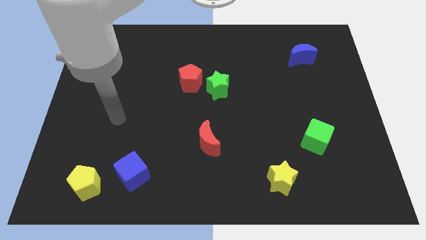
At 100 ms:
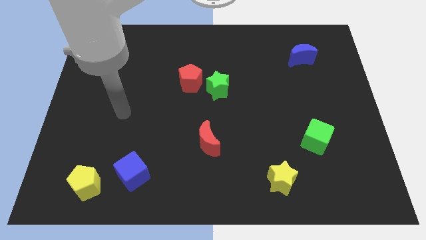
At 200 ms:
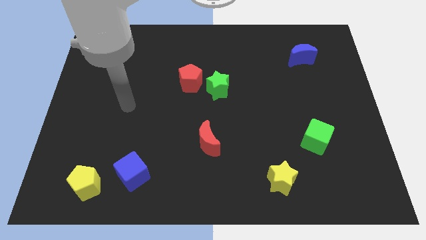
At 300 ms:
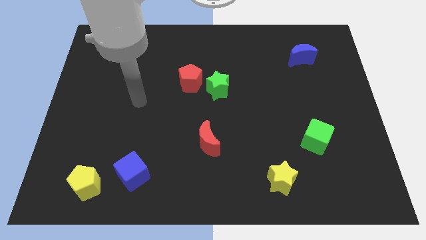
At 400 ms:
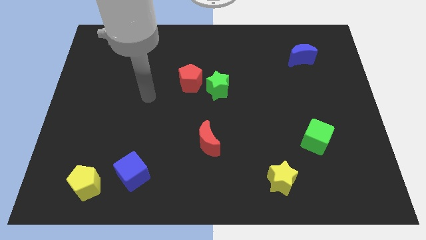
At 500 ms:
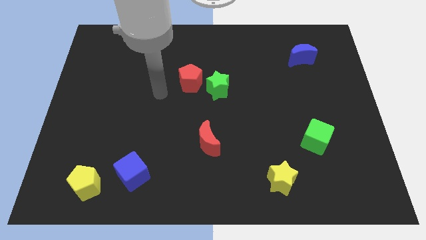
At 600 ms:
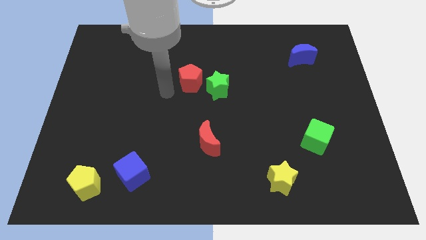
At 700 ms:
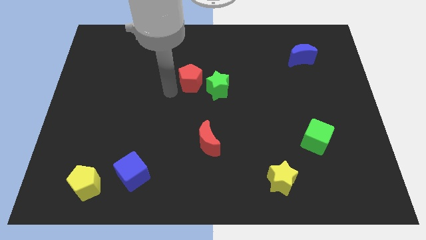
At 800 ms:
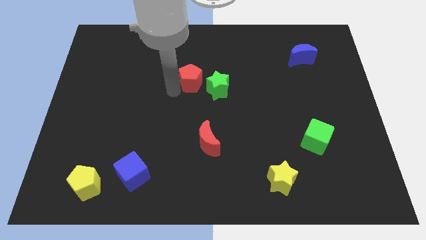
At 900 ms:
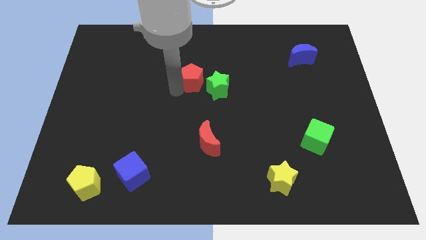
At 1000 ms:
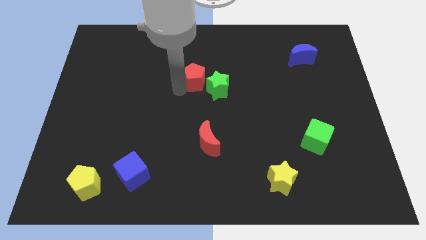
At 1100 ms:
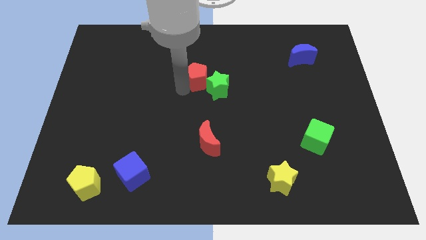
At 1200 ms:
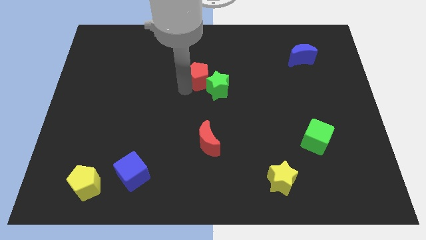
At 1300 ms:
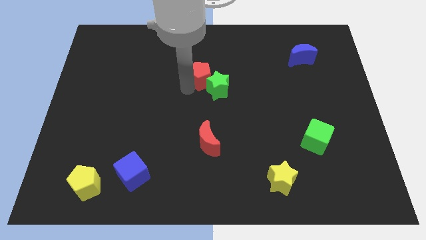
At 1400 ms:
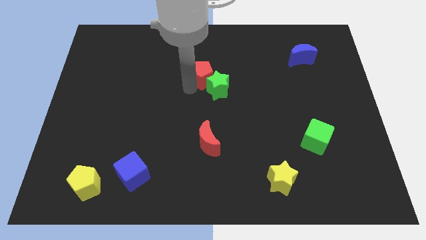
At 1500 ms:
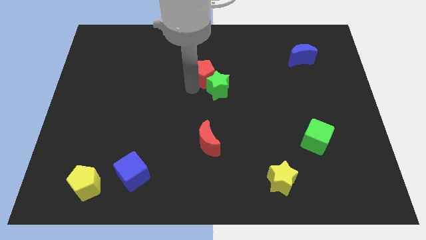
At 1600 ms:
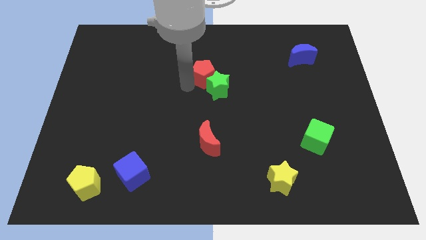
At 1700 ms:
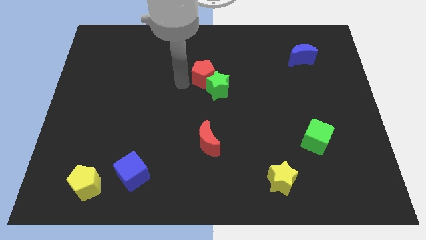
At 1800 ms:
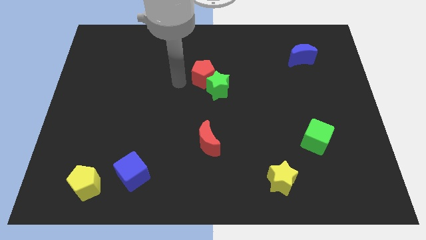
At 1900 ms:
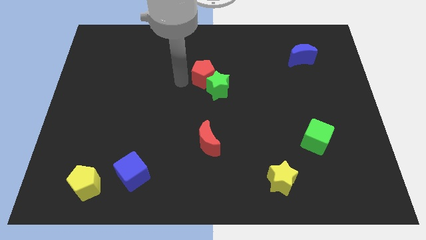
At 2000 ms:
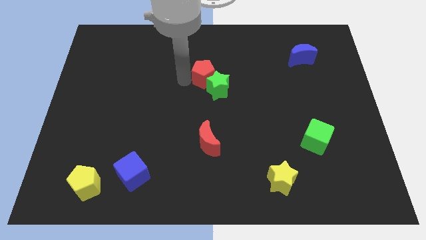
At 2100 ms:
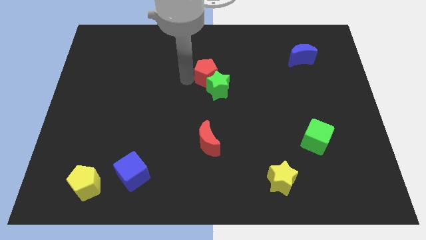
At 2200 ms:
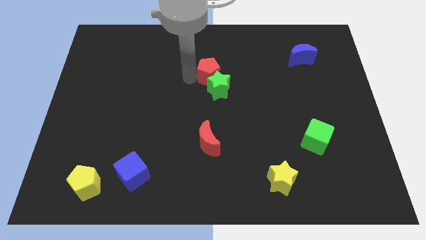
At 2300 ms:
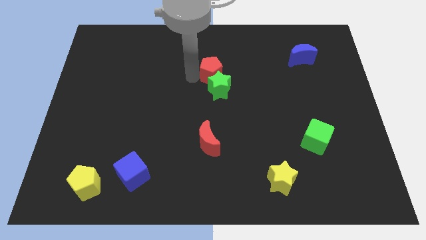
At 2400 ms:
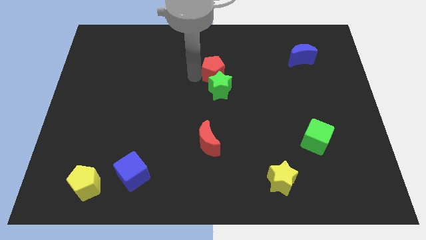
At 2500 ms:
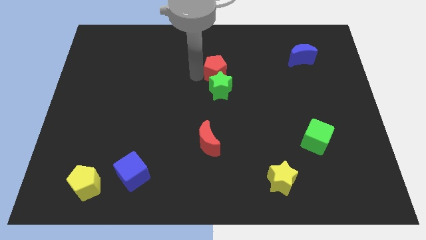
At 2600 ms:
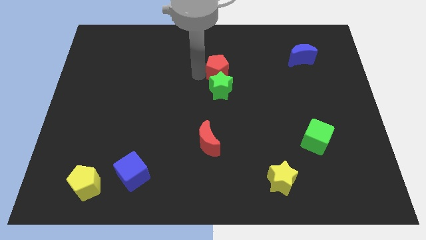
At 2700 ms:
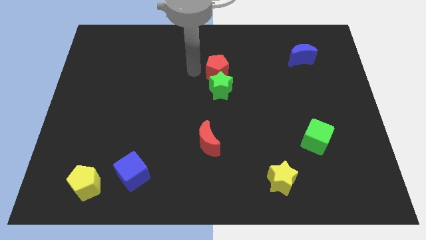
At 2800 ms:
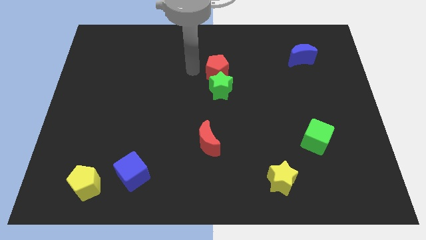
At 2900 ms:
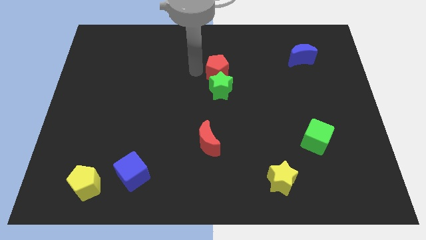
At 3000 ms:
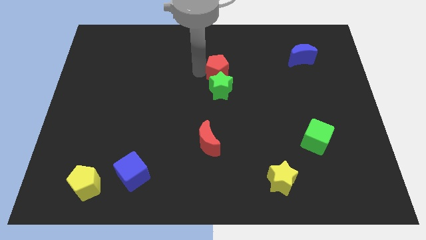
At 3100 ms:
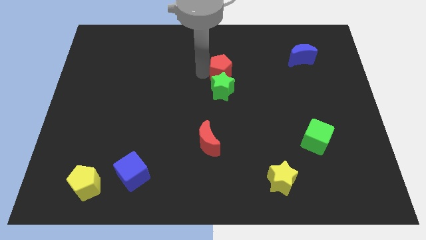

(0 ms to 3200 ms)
slightly push the red pentagon to the right

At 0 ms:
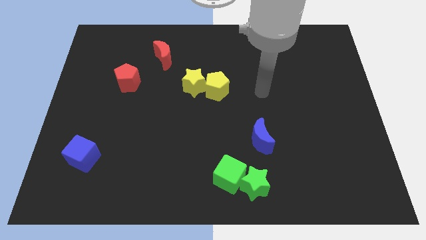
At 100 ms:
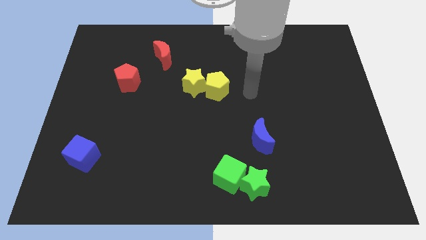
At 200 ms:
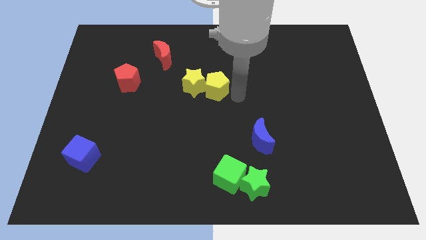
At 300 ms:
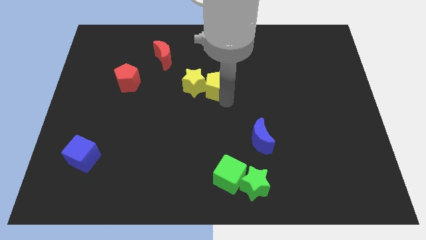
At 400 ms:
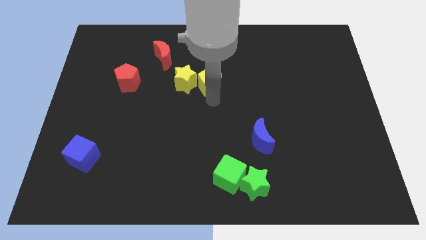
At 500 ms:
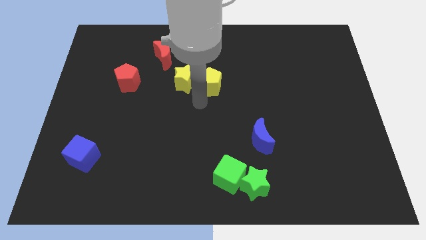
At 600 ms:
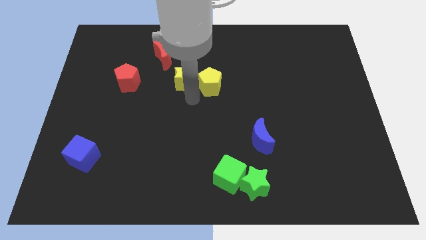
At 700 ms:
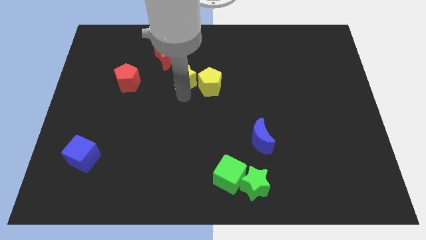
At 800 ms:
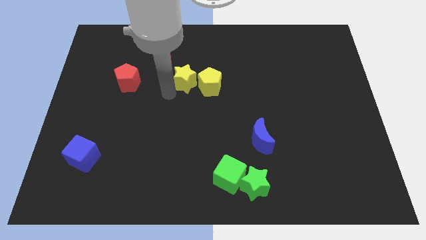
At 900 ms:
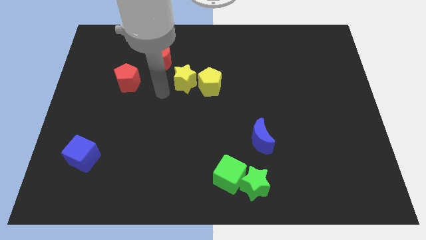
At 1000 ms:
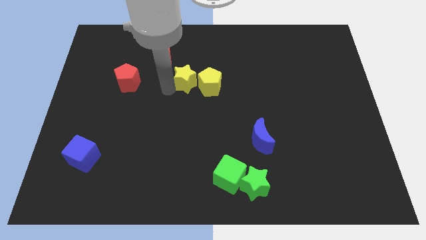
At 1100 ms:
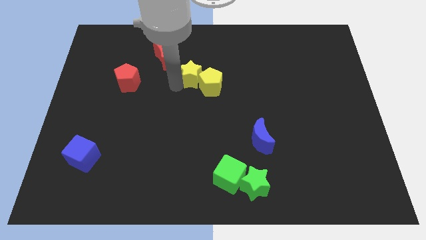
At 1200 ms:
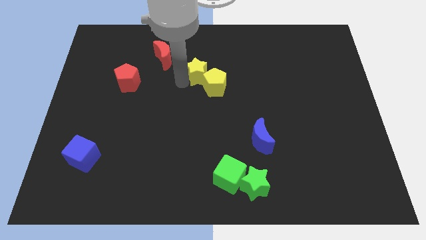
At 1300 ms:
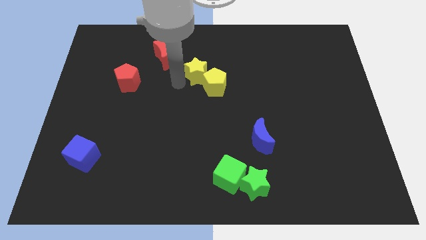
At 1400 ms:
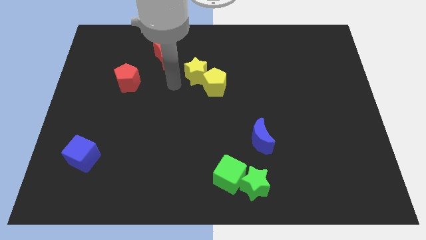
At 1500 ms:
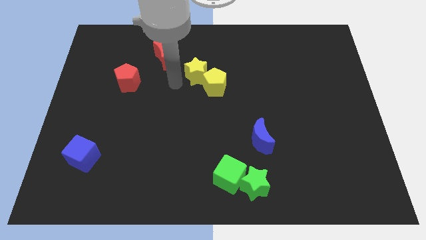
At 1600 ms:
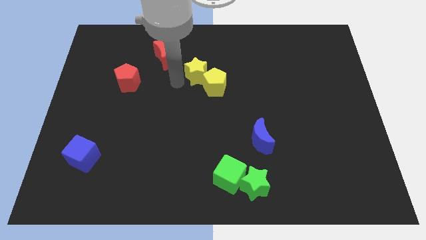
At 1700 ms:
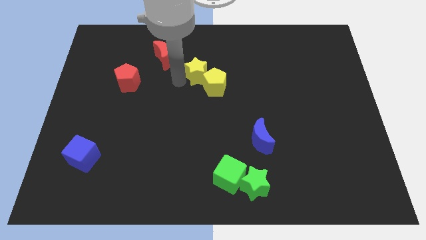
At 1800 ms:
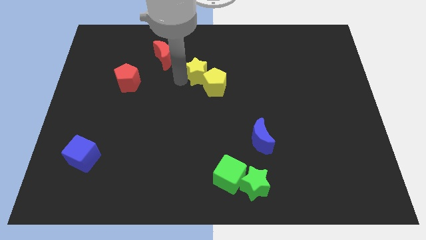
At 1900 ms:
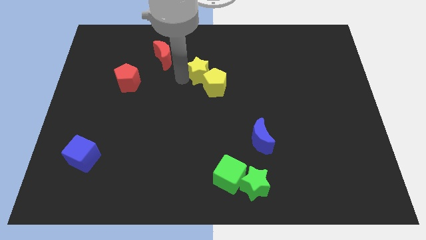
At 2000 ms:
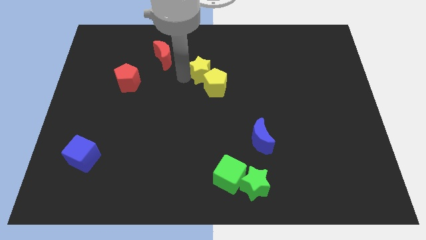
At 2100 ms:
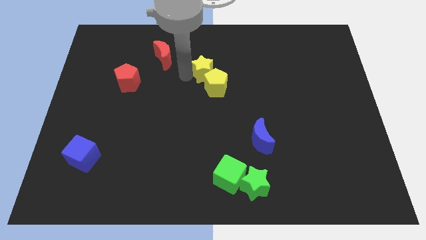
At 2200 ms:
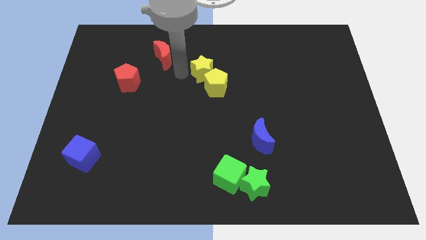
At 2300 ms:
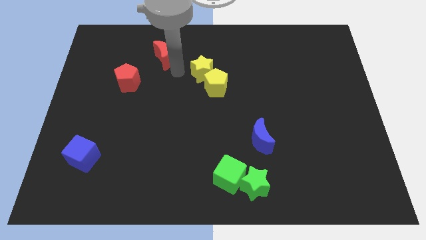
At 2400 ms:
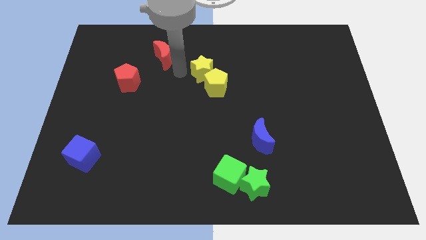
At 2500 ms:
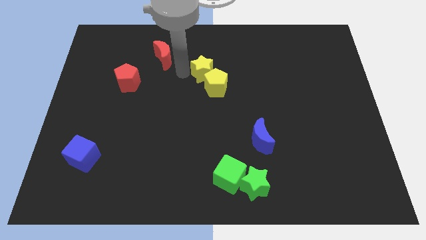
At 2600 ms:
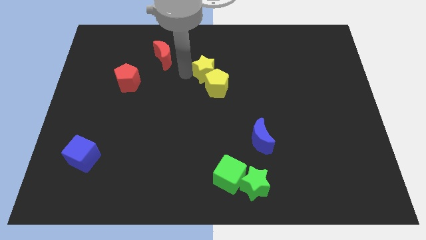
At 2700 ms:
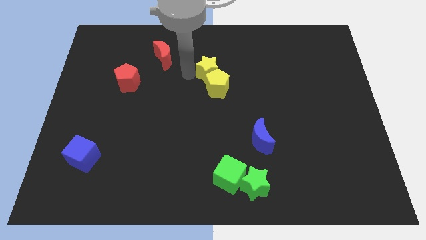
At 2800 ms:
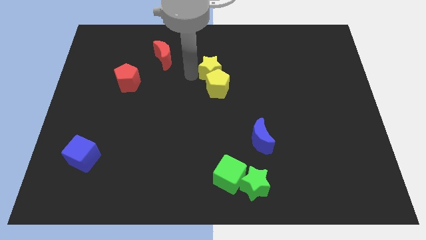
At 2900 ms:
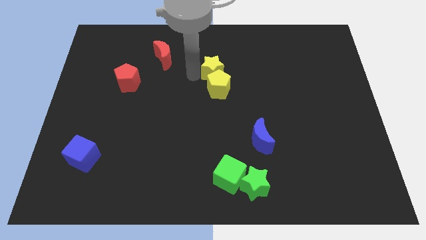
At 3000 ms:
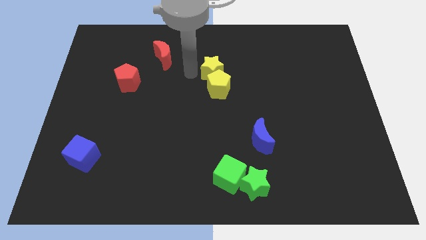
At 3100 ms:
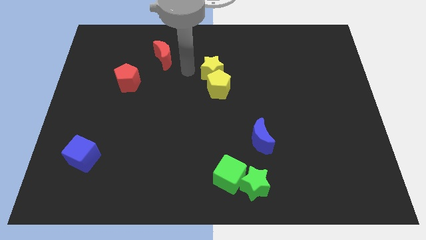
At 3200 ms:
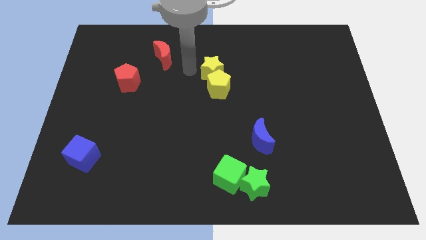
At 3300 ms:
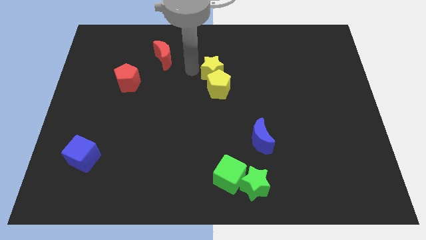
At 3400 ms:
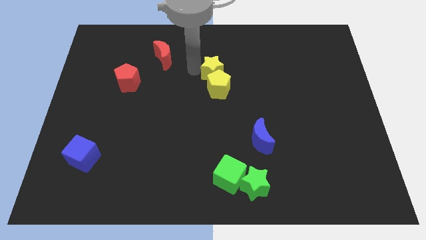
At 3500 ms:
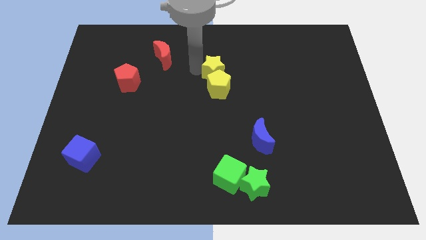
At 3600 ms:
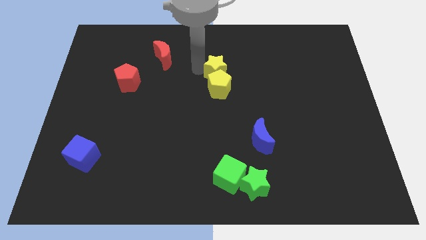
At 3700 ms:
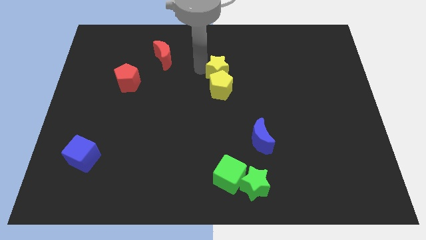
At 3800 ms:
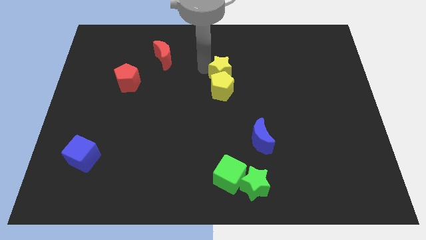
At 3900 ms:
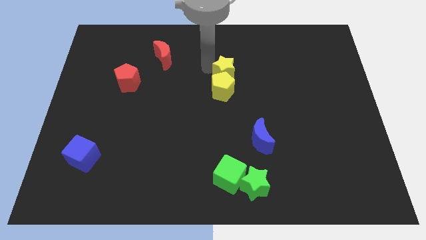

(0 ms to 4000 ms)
move the yellow star a little bit right

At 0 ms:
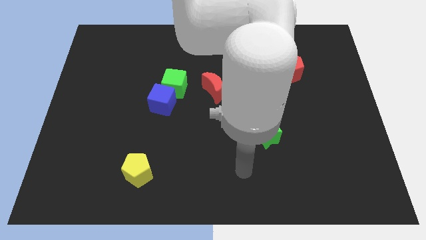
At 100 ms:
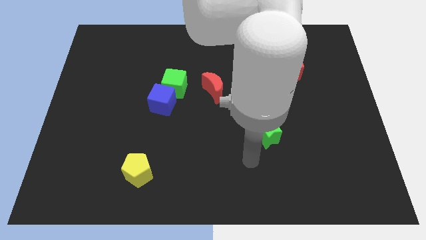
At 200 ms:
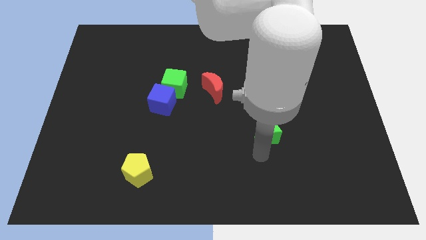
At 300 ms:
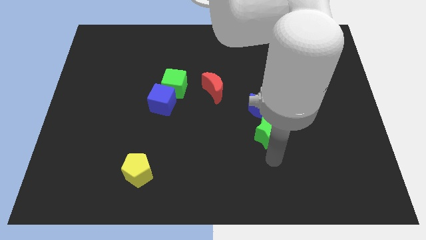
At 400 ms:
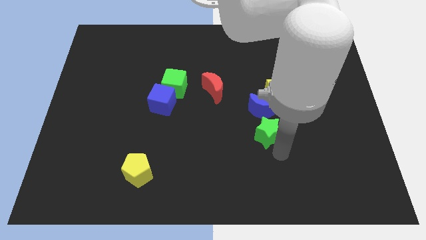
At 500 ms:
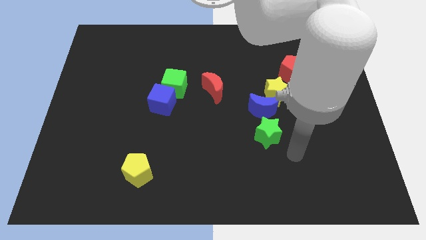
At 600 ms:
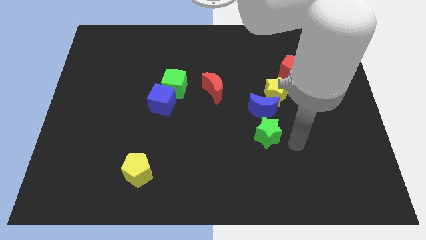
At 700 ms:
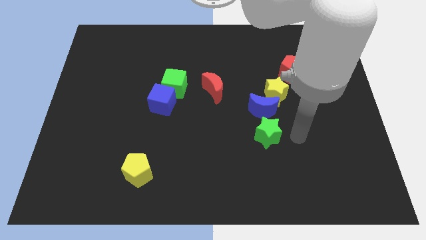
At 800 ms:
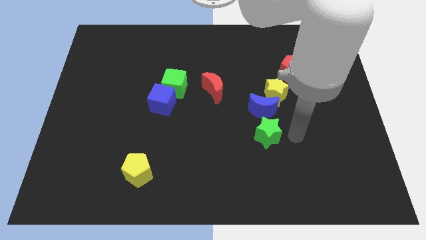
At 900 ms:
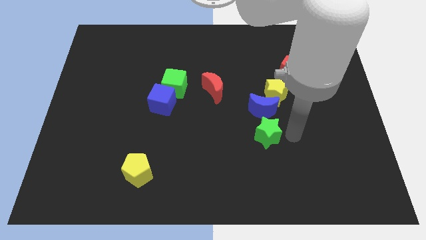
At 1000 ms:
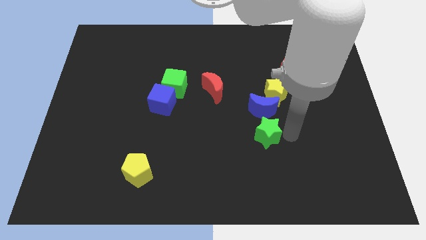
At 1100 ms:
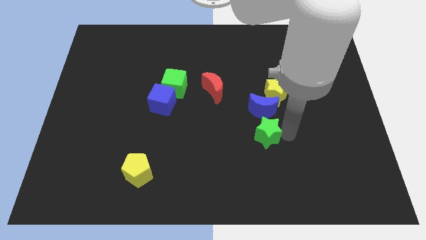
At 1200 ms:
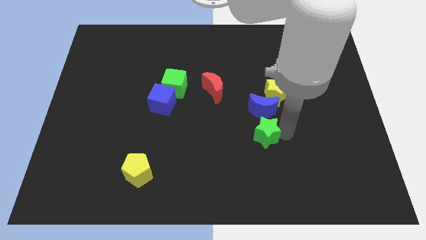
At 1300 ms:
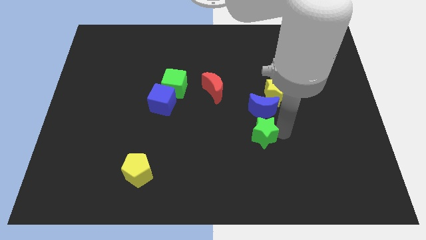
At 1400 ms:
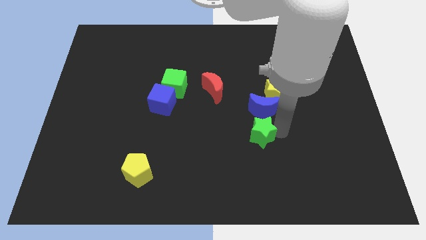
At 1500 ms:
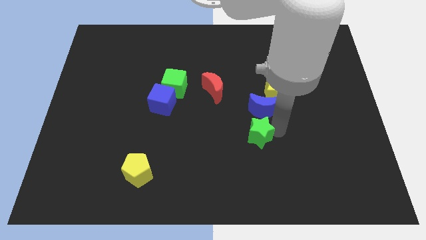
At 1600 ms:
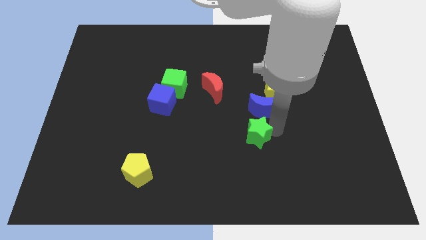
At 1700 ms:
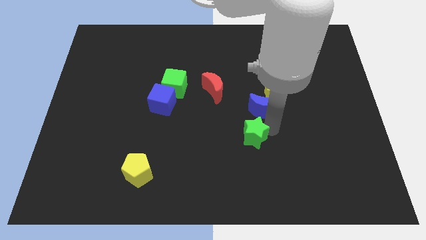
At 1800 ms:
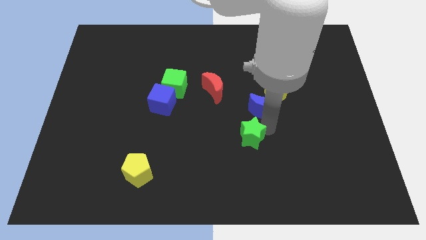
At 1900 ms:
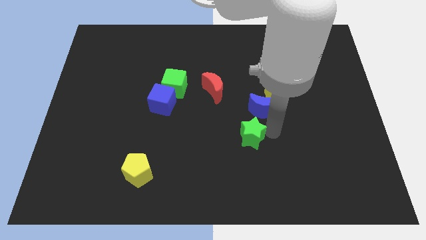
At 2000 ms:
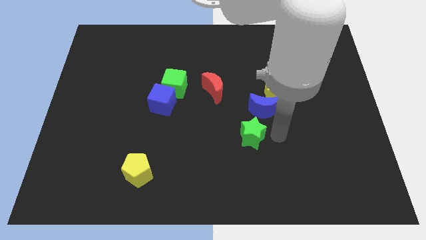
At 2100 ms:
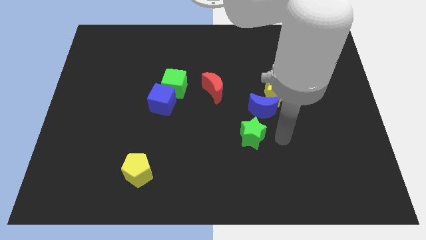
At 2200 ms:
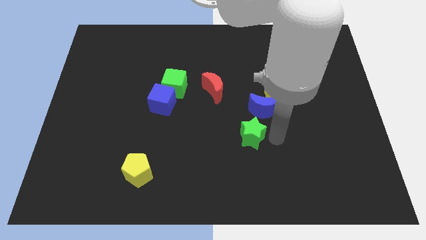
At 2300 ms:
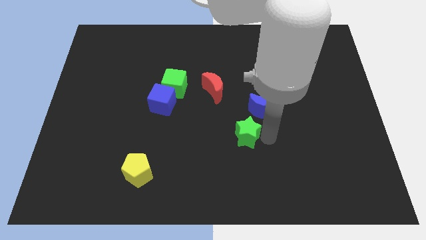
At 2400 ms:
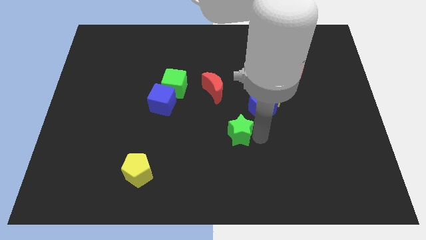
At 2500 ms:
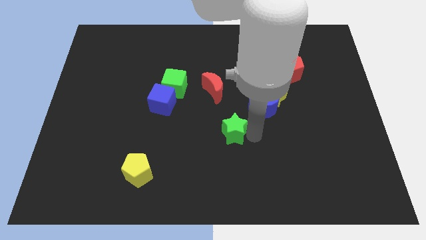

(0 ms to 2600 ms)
slightly move the green star to the left
